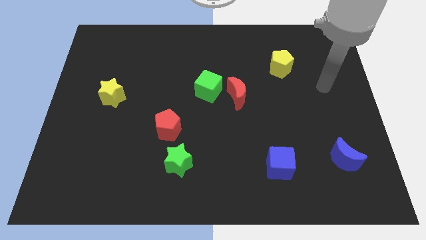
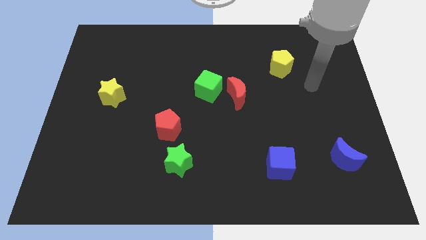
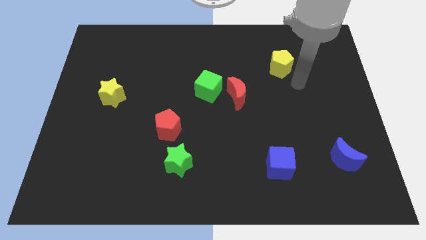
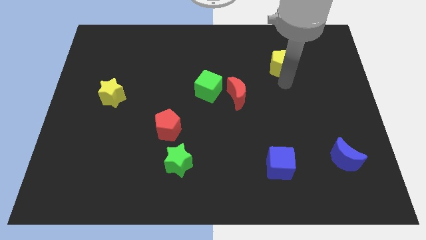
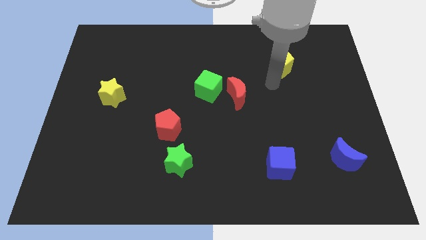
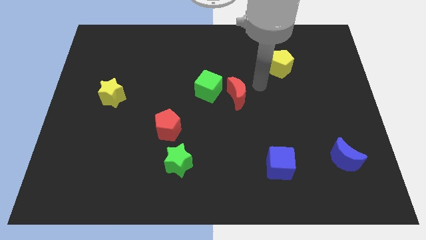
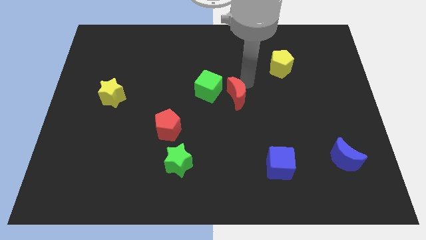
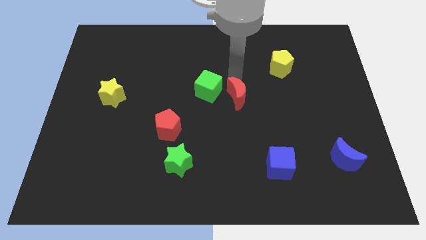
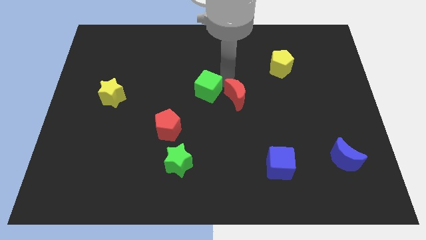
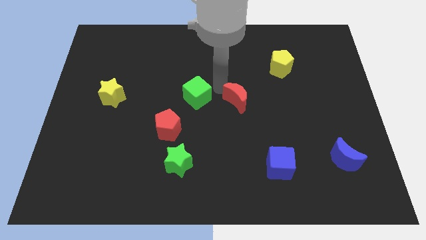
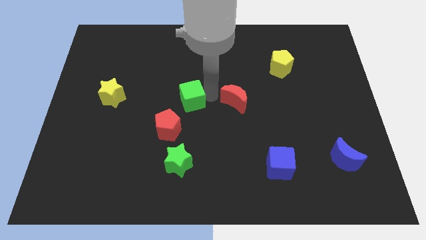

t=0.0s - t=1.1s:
move the red moon away from the green cube

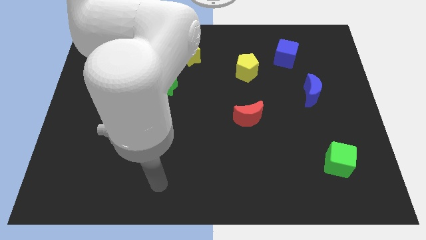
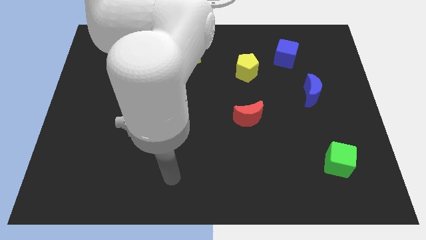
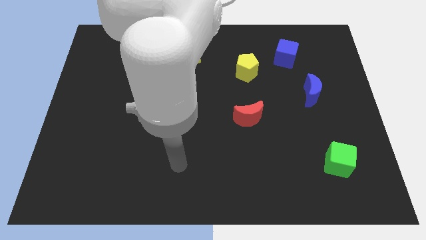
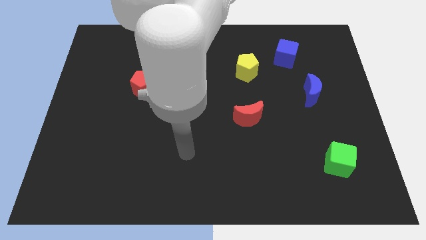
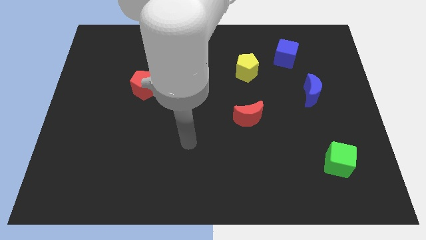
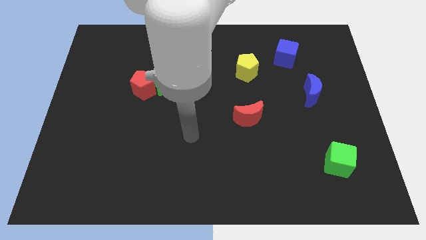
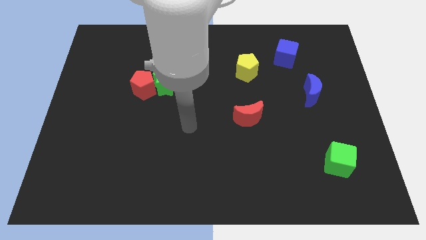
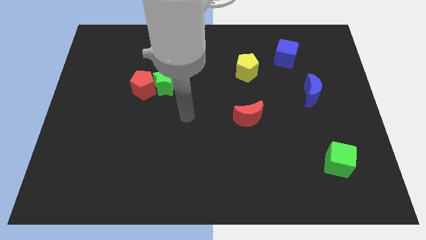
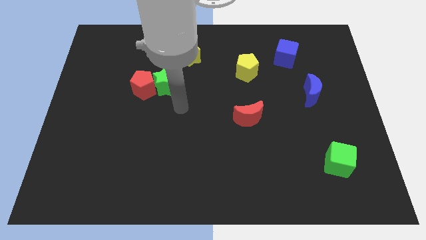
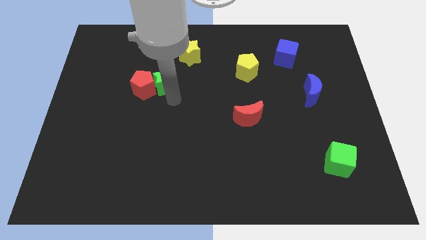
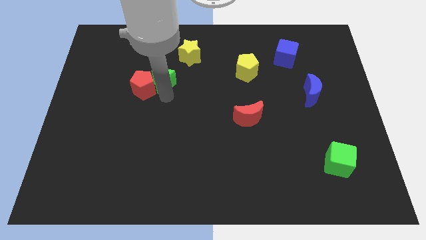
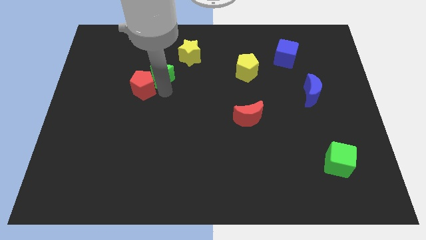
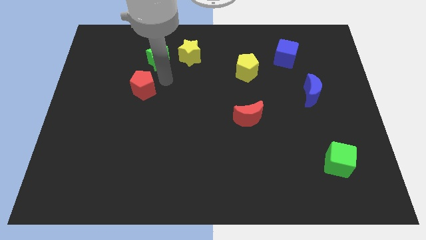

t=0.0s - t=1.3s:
pull the red pentagon apart from the green star

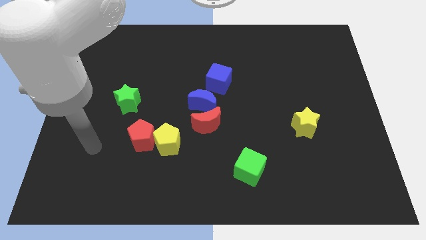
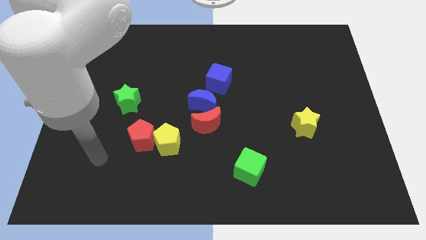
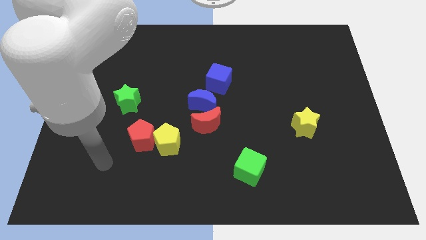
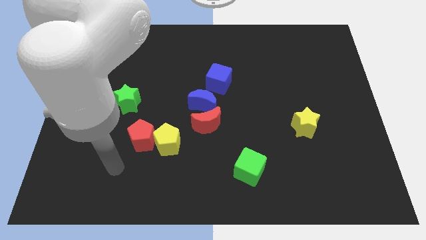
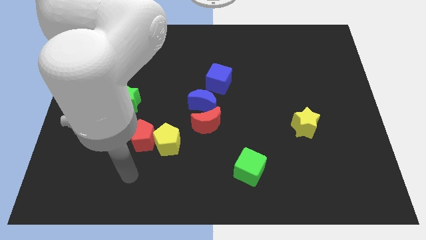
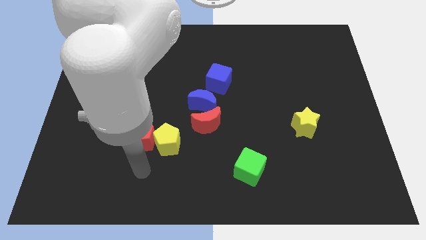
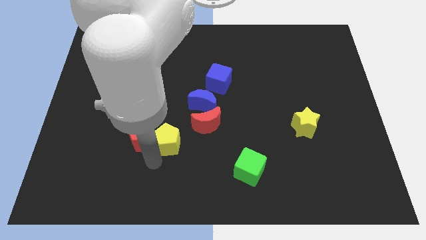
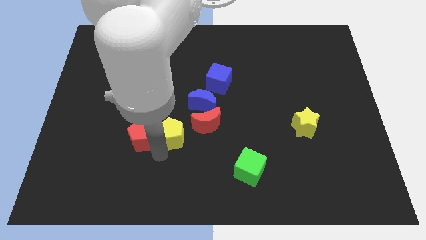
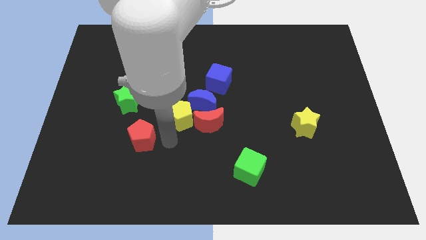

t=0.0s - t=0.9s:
pull the red pentagon apart from the yellow pentagon

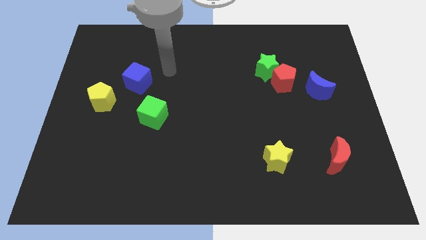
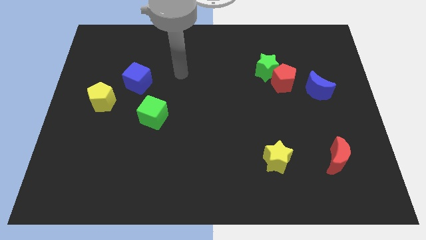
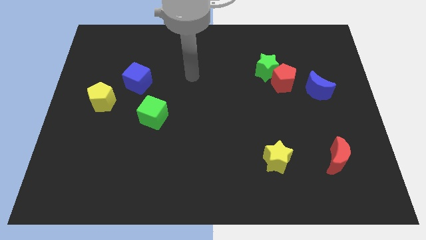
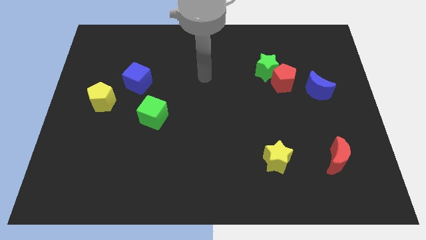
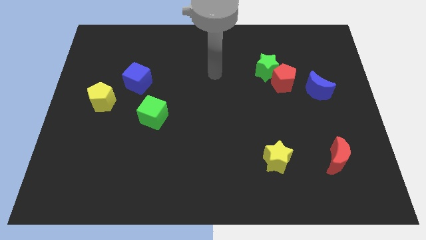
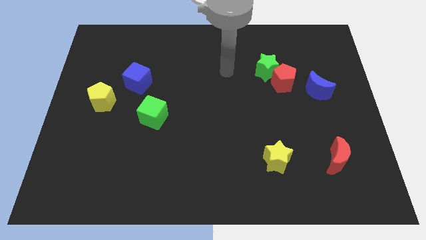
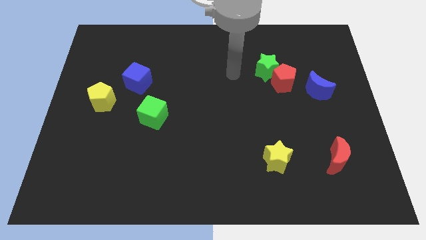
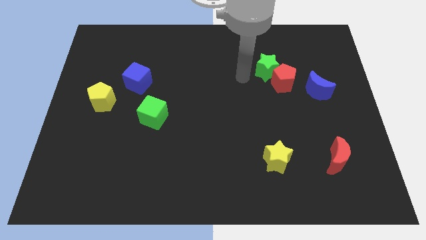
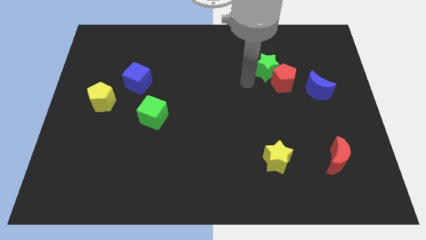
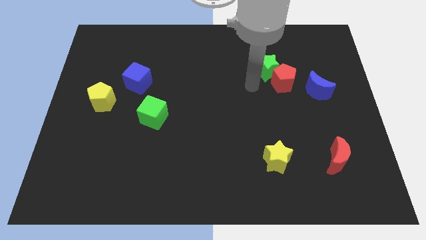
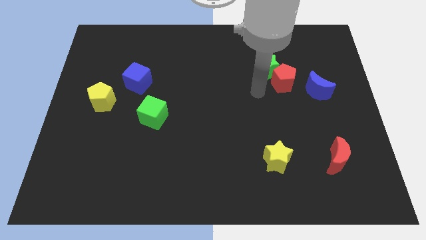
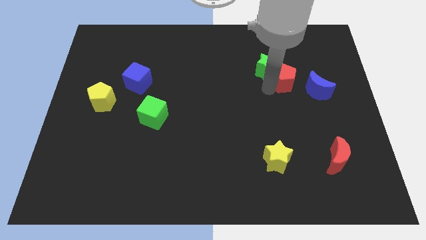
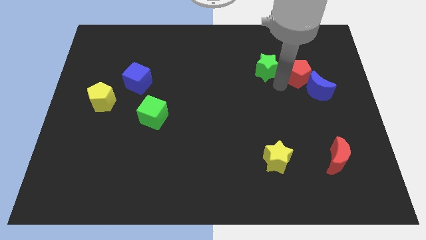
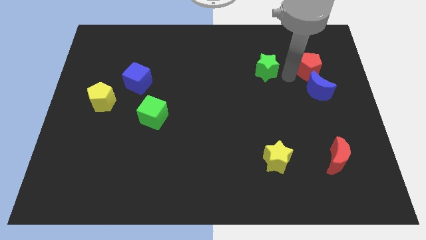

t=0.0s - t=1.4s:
separate the green star from the red pentagon

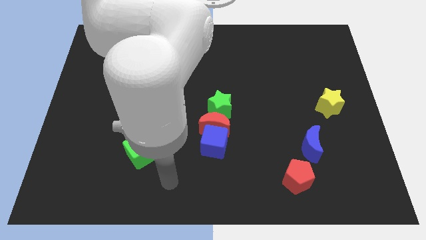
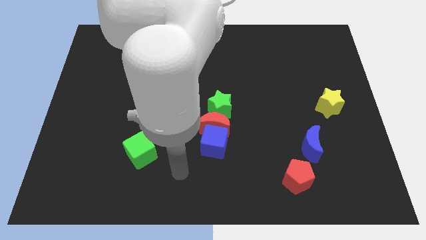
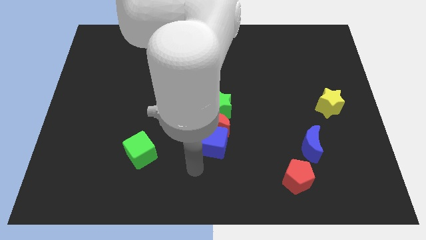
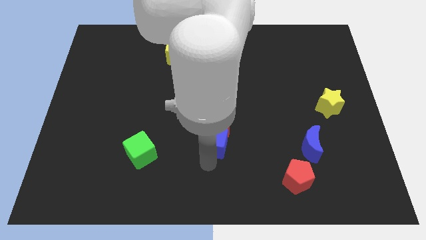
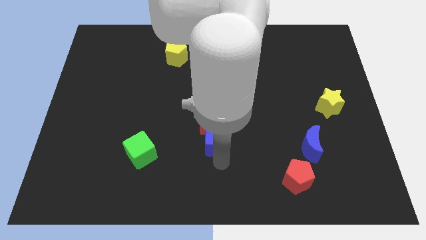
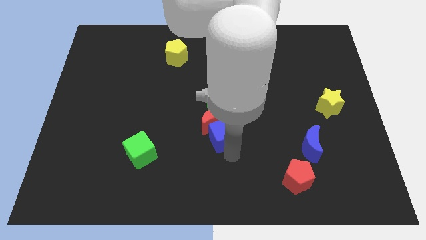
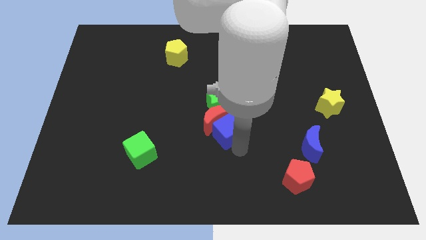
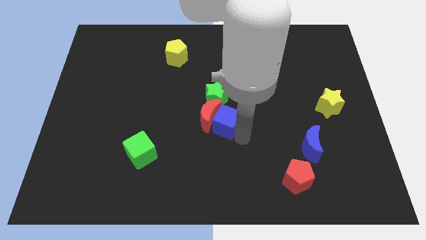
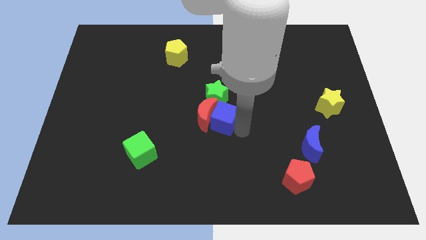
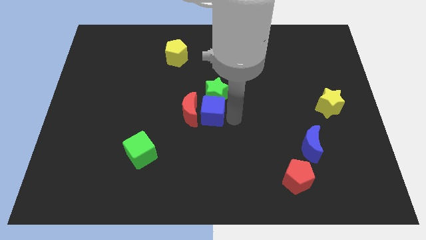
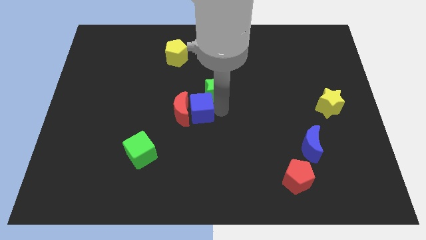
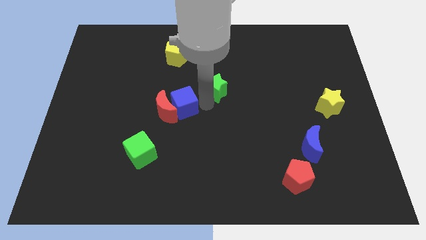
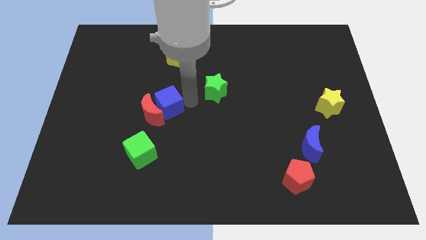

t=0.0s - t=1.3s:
move the red moon away from the blue cube and green star

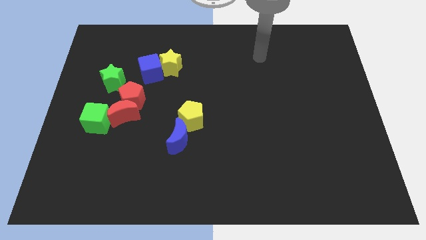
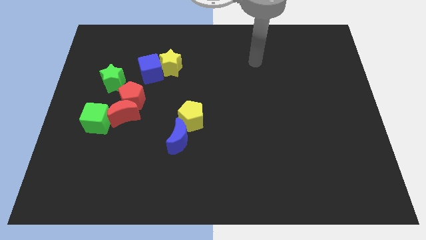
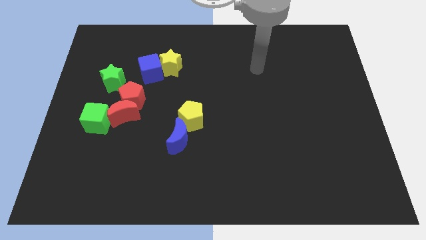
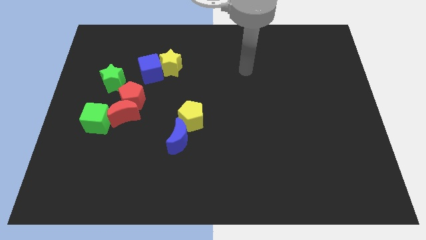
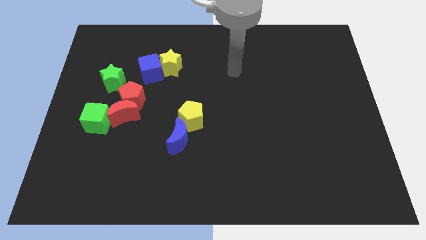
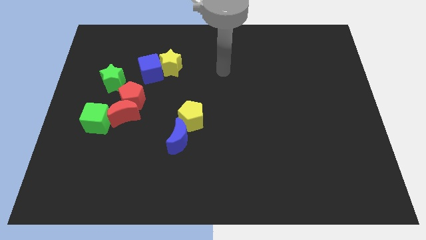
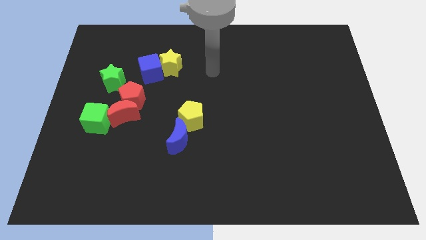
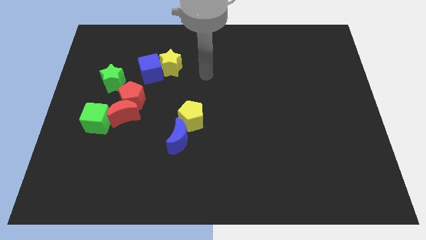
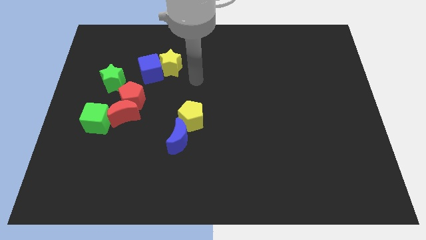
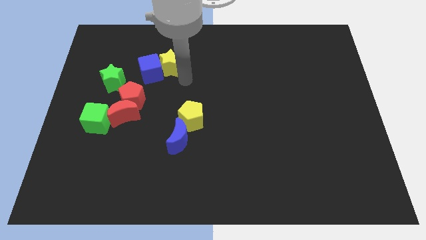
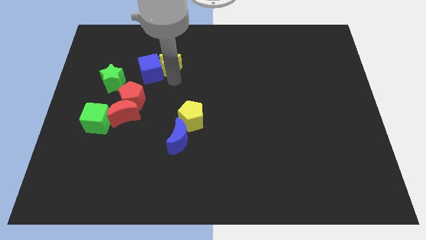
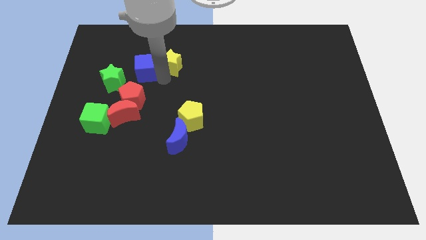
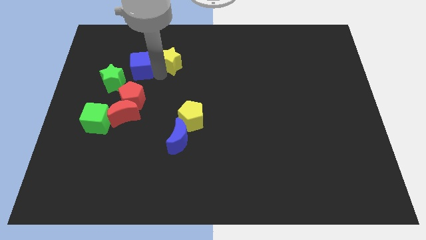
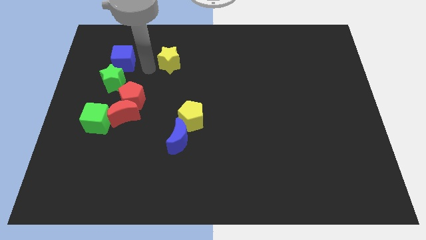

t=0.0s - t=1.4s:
pull the yellow star apart from the blue cube

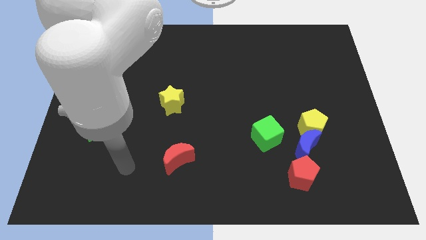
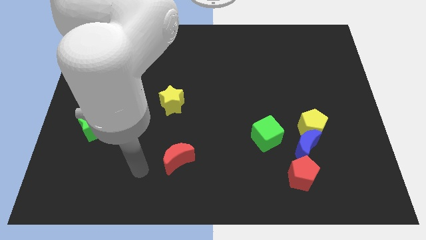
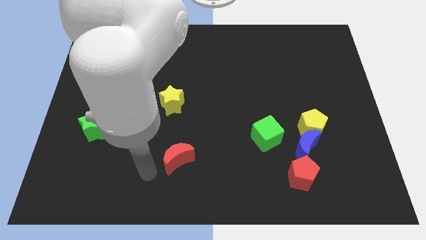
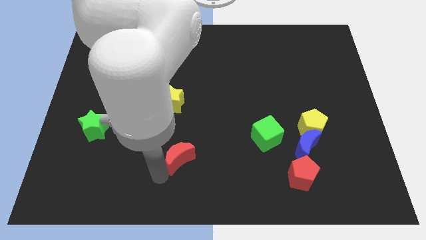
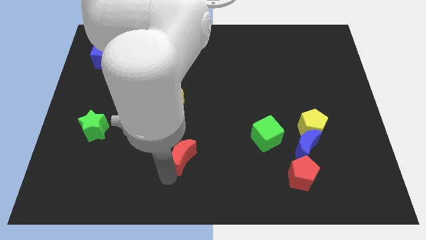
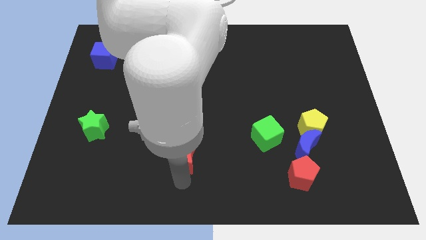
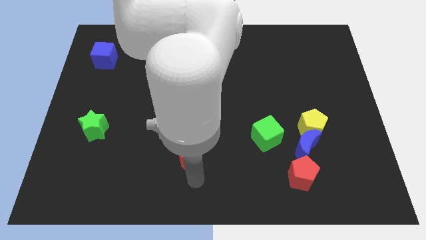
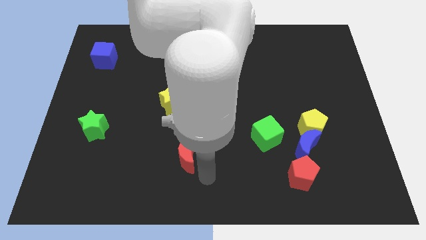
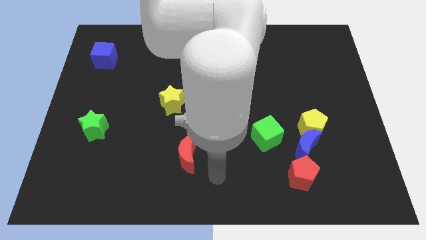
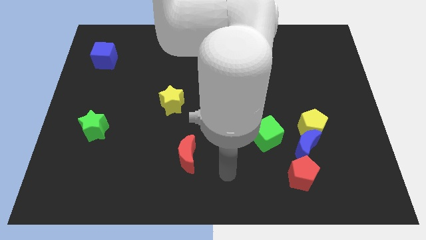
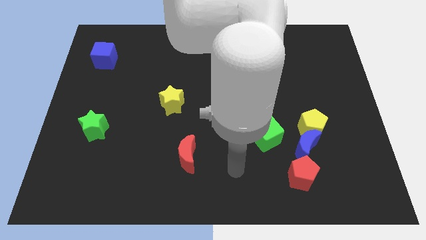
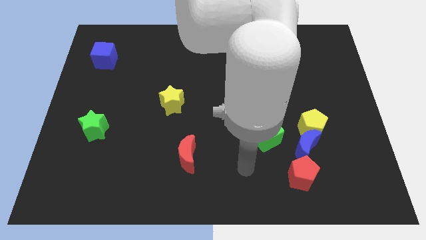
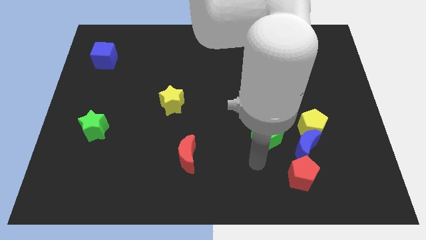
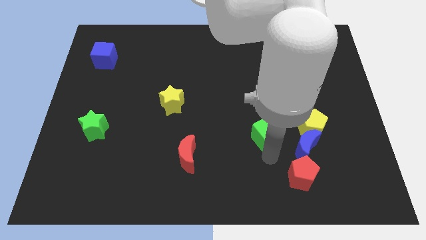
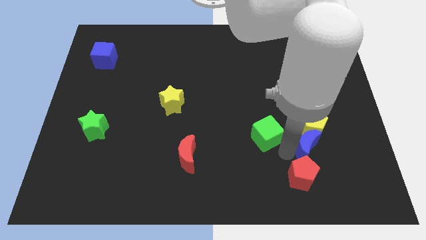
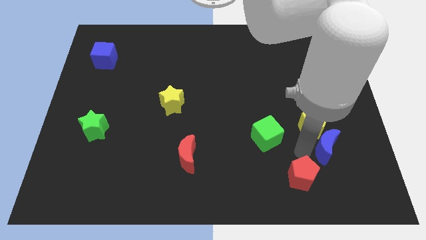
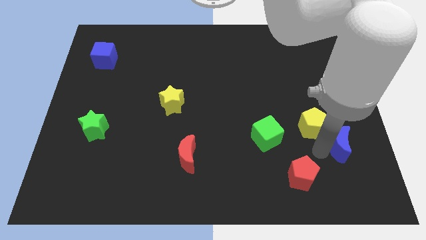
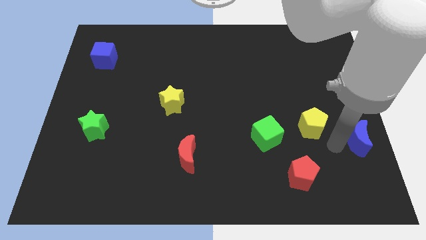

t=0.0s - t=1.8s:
move the yellow pentagon away from the blue moon
